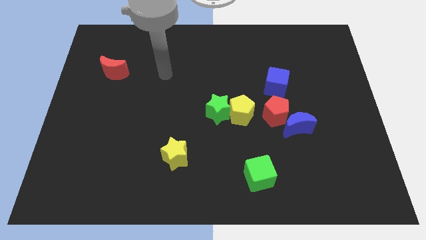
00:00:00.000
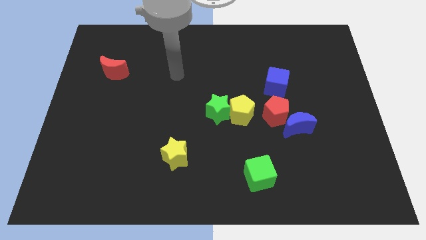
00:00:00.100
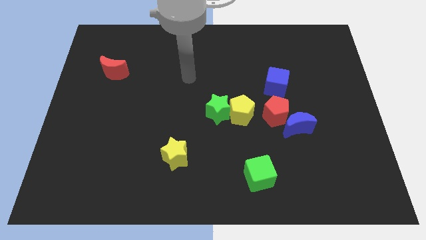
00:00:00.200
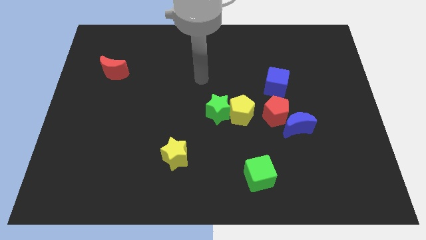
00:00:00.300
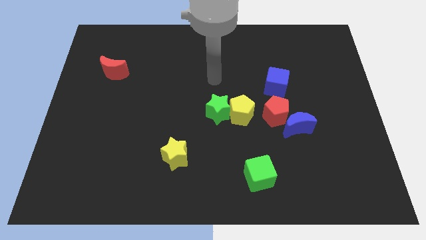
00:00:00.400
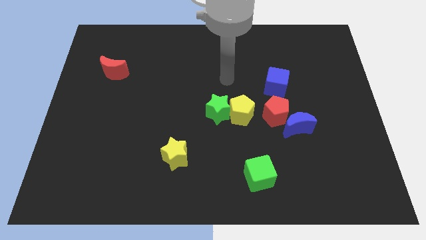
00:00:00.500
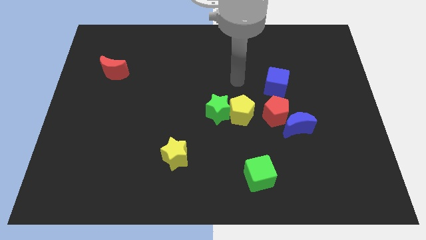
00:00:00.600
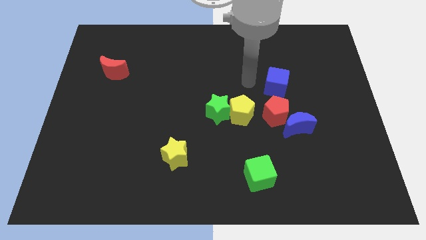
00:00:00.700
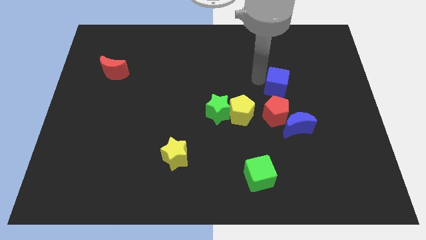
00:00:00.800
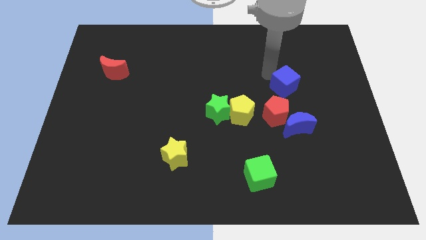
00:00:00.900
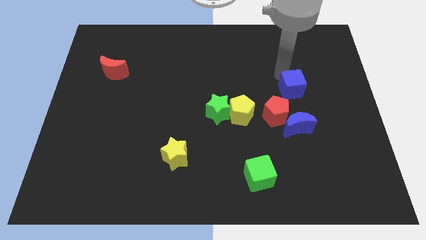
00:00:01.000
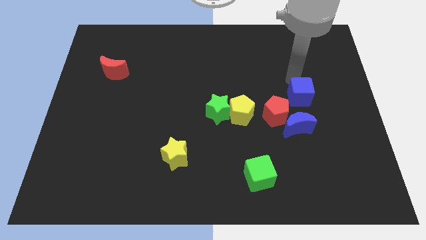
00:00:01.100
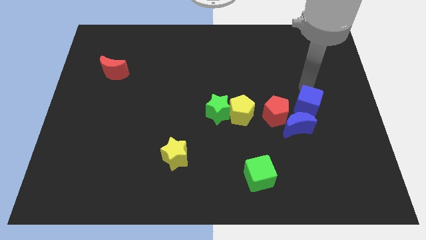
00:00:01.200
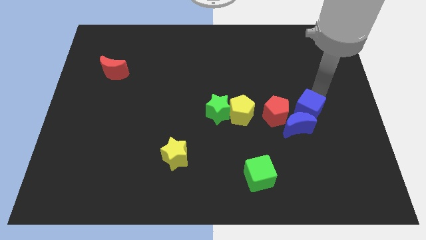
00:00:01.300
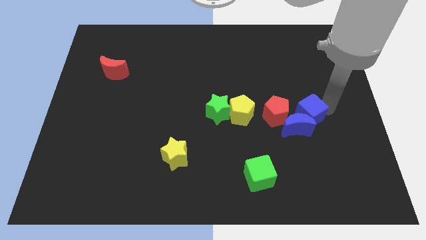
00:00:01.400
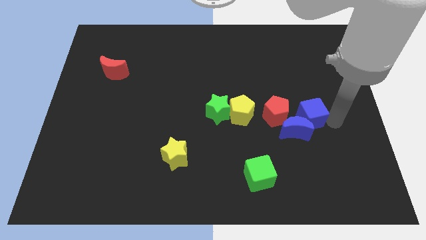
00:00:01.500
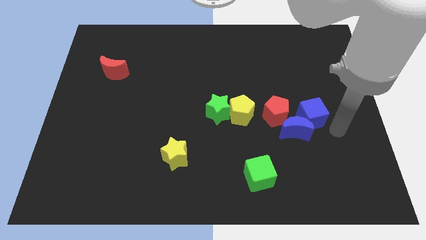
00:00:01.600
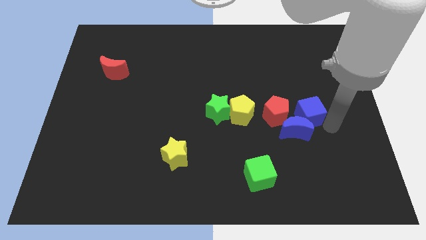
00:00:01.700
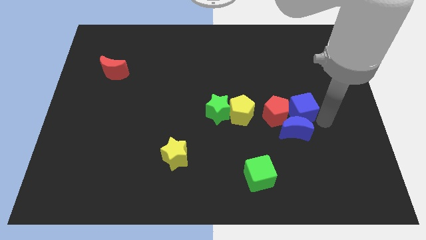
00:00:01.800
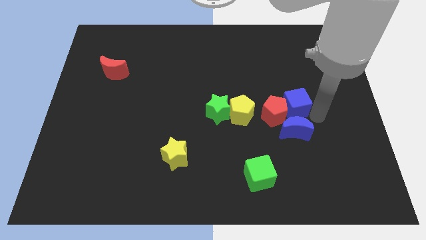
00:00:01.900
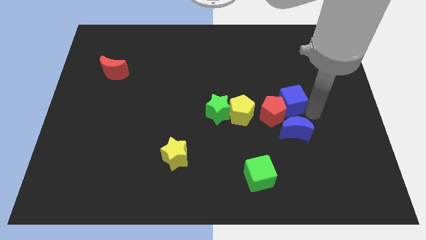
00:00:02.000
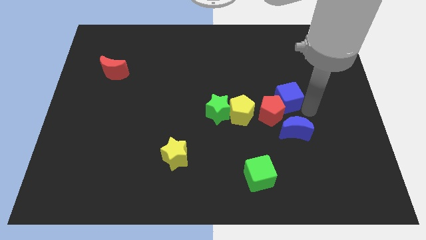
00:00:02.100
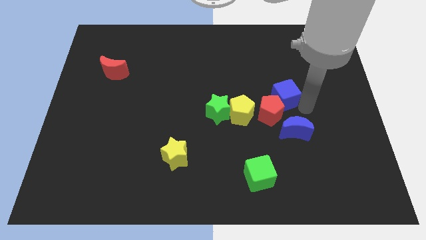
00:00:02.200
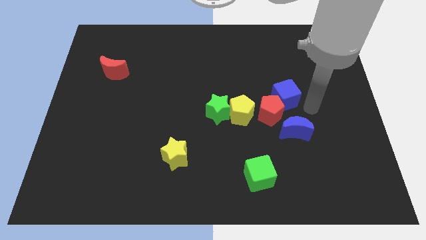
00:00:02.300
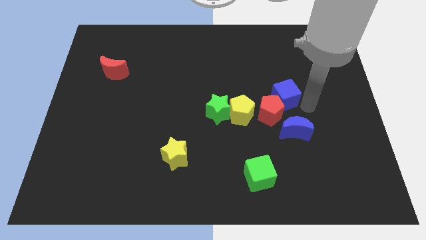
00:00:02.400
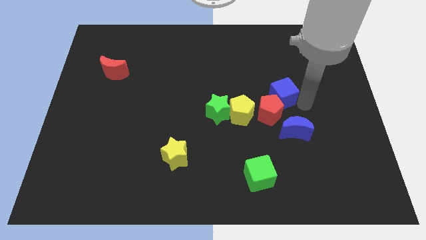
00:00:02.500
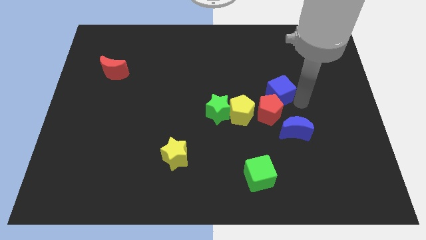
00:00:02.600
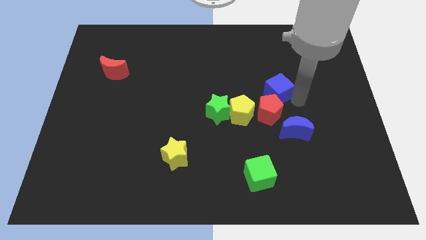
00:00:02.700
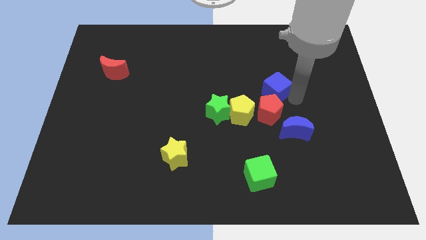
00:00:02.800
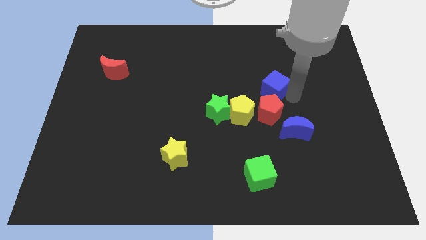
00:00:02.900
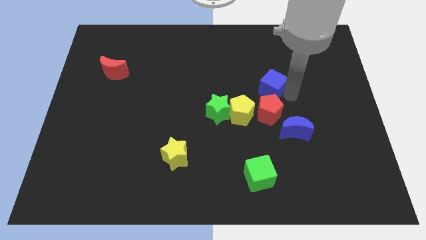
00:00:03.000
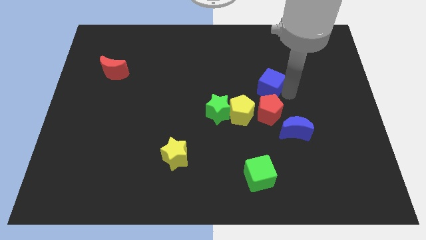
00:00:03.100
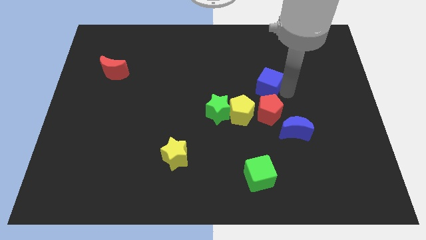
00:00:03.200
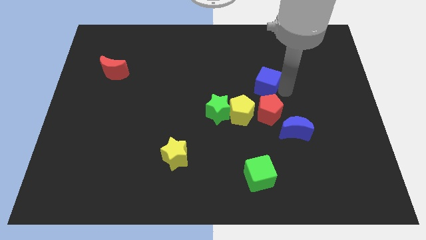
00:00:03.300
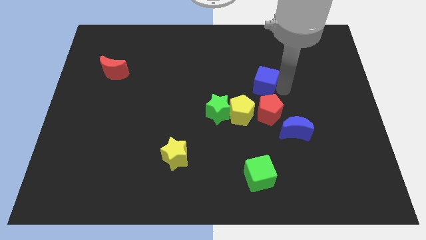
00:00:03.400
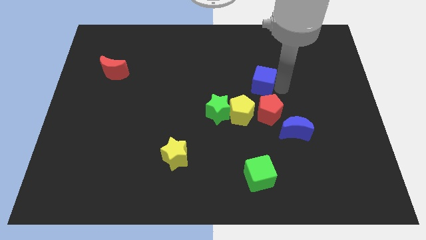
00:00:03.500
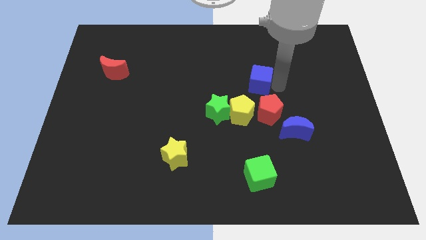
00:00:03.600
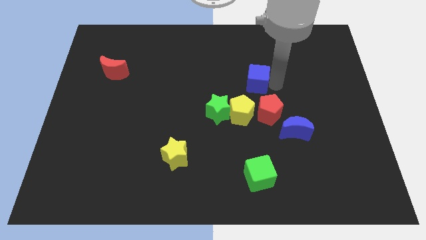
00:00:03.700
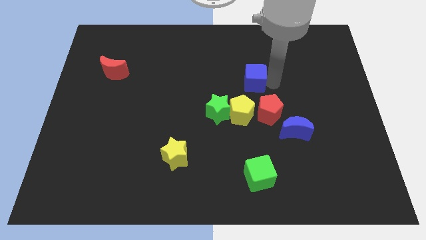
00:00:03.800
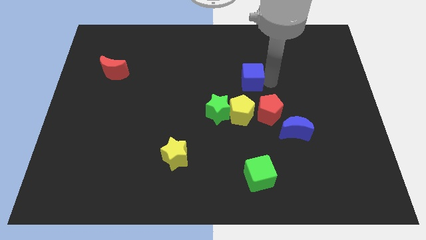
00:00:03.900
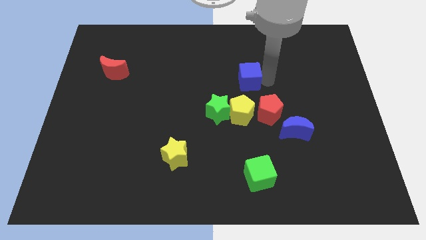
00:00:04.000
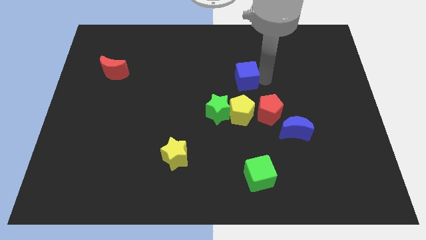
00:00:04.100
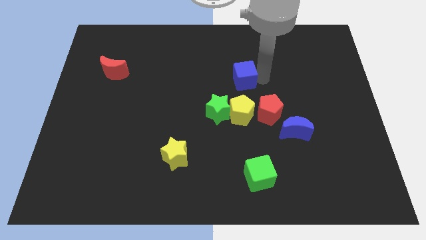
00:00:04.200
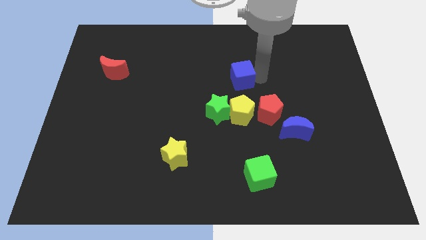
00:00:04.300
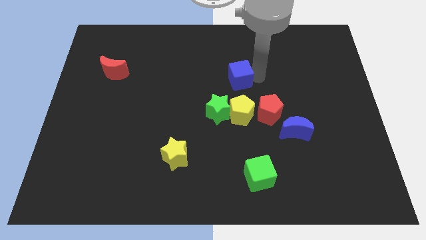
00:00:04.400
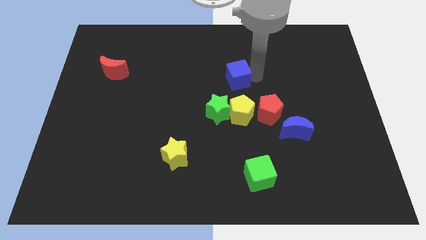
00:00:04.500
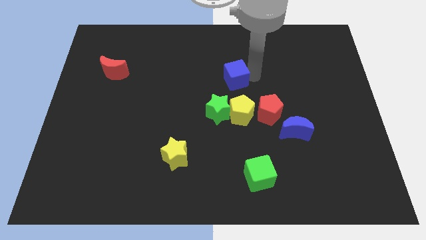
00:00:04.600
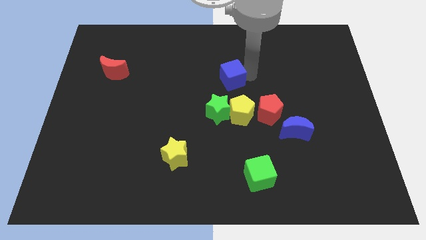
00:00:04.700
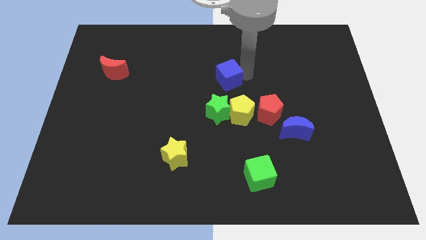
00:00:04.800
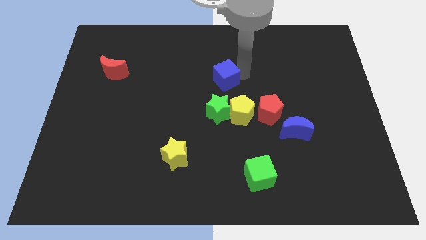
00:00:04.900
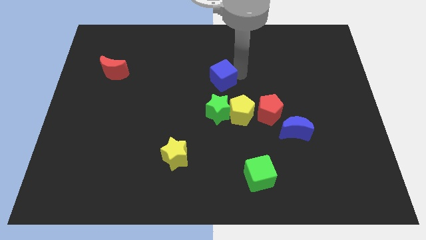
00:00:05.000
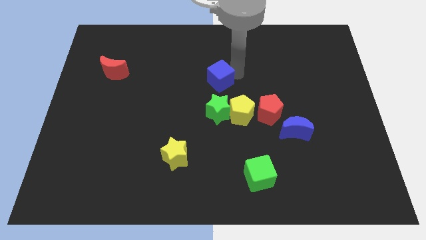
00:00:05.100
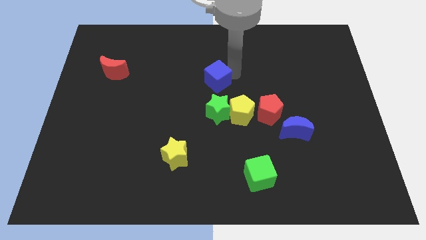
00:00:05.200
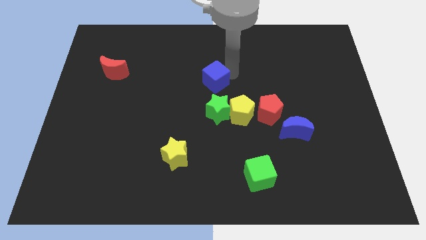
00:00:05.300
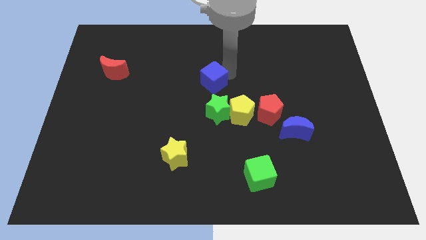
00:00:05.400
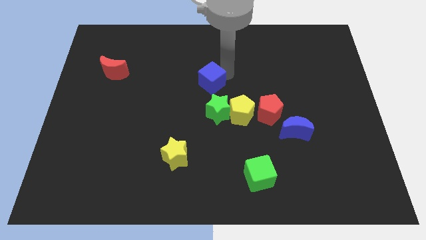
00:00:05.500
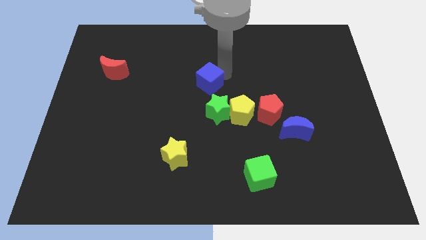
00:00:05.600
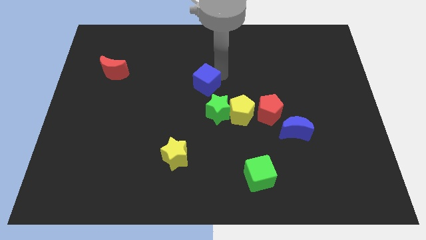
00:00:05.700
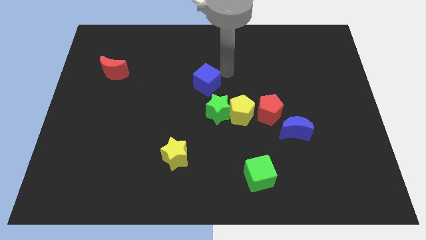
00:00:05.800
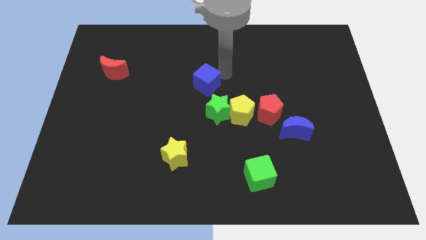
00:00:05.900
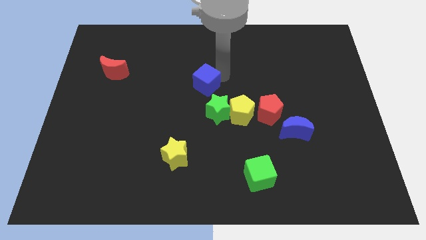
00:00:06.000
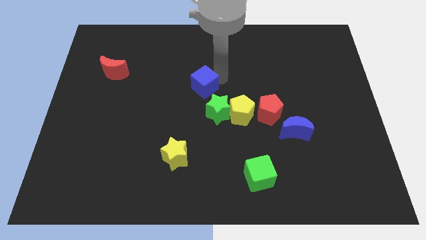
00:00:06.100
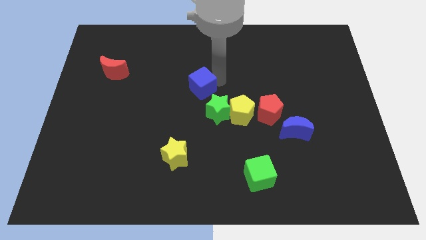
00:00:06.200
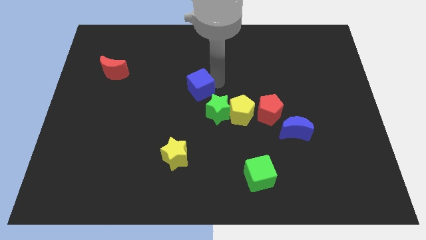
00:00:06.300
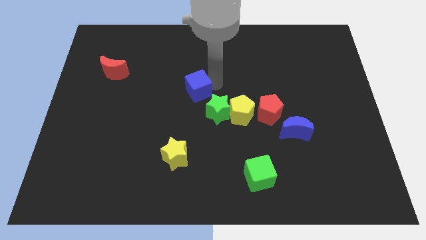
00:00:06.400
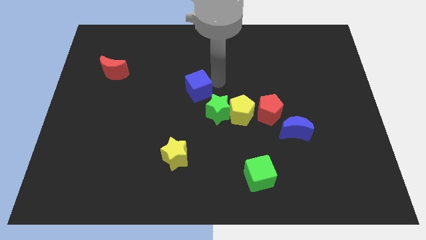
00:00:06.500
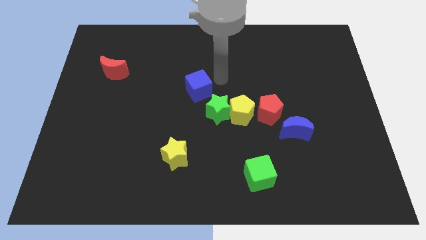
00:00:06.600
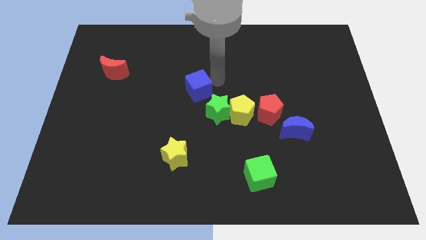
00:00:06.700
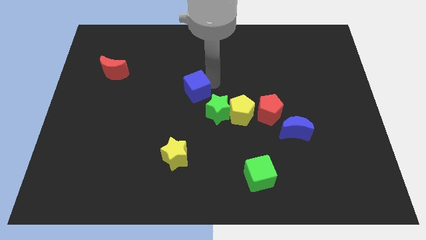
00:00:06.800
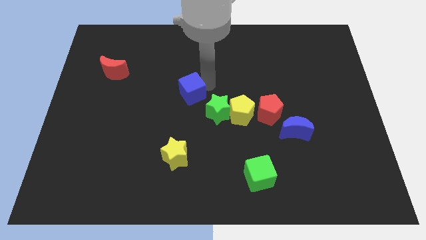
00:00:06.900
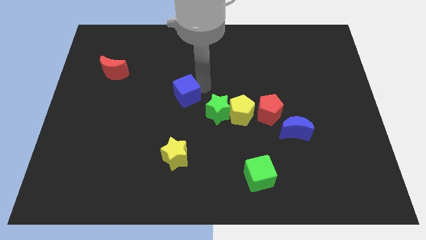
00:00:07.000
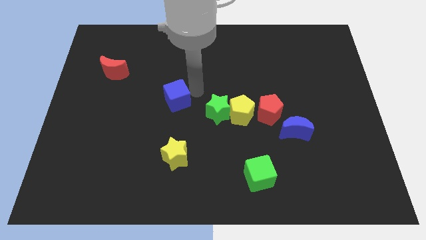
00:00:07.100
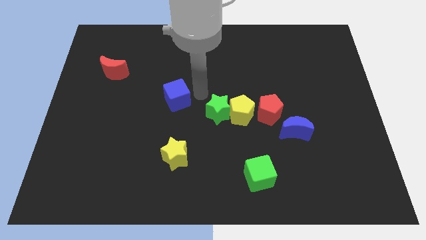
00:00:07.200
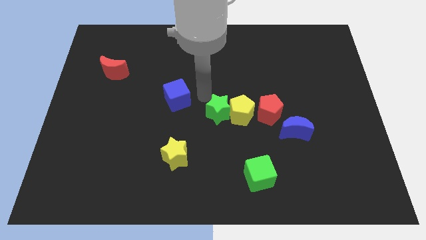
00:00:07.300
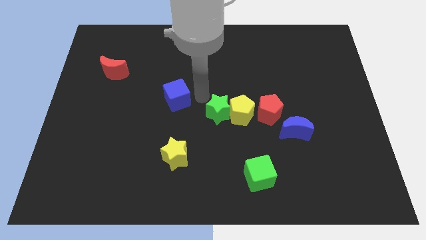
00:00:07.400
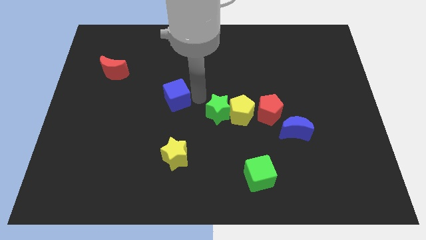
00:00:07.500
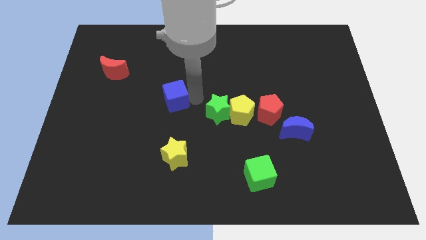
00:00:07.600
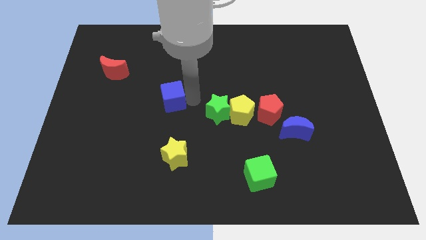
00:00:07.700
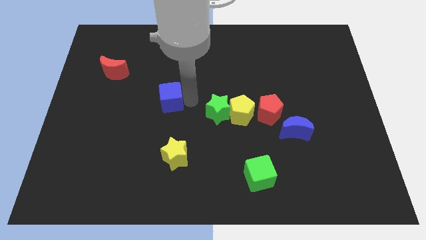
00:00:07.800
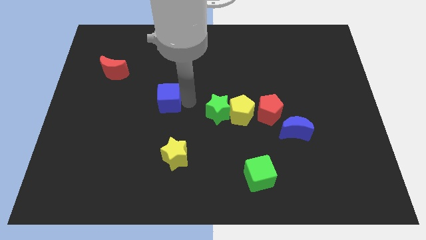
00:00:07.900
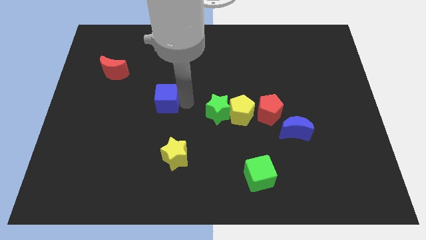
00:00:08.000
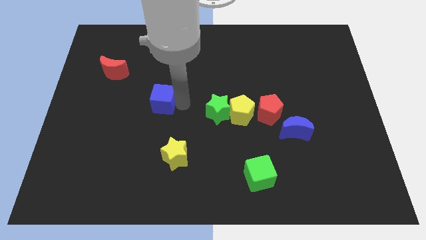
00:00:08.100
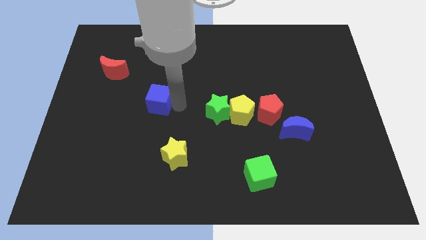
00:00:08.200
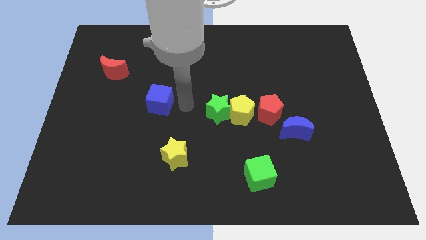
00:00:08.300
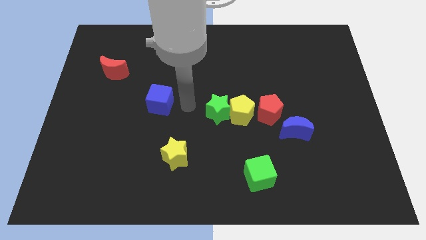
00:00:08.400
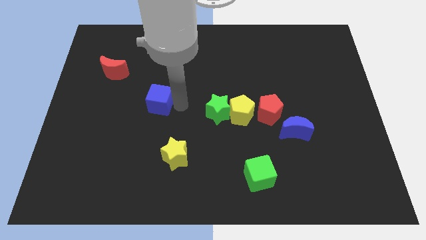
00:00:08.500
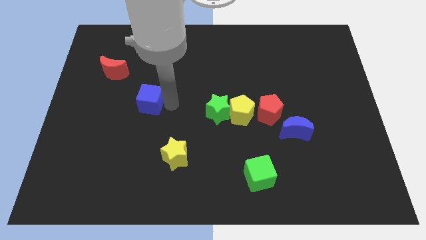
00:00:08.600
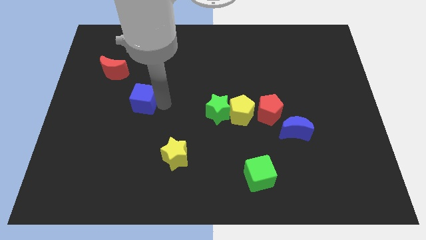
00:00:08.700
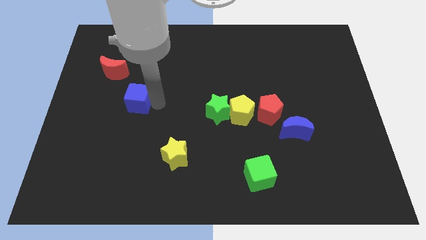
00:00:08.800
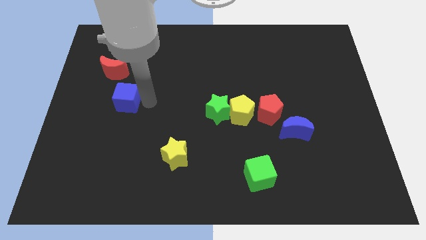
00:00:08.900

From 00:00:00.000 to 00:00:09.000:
slide the blue cube to the bottom of the red moon
